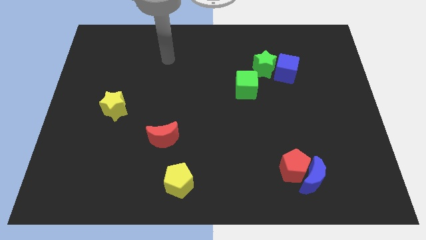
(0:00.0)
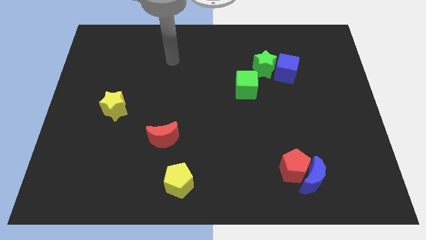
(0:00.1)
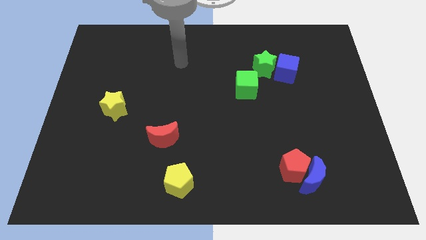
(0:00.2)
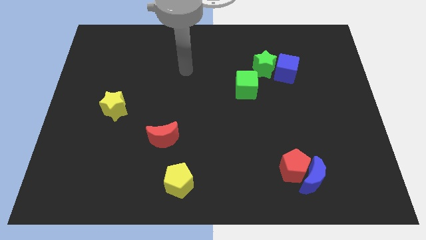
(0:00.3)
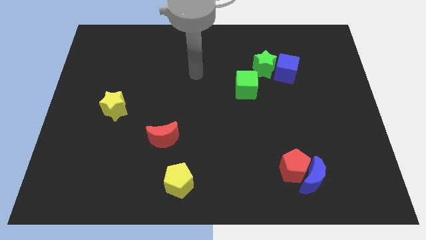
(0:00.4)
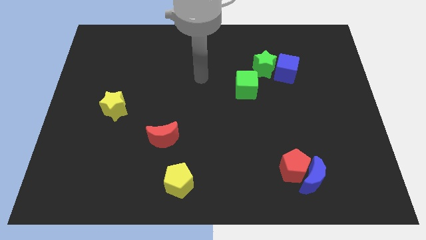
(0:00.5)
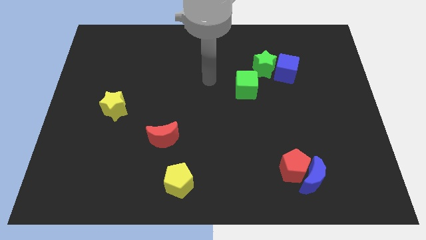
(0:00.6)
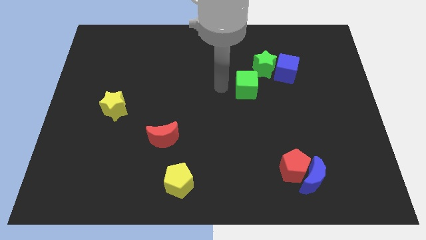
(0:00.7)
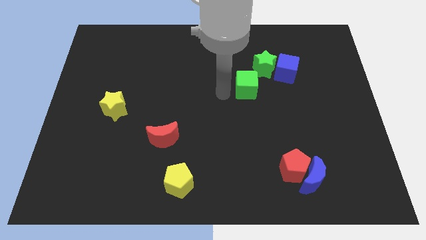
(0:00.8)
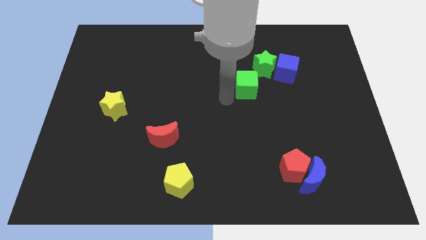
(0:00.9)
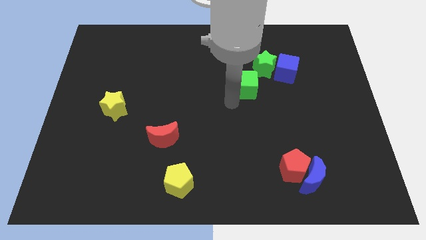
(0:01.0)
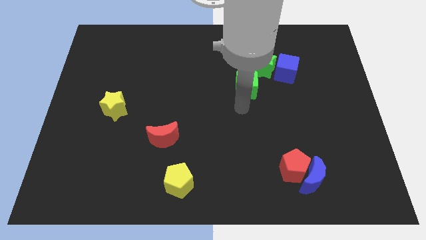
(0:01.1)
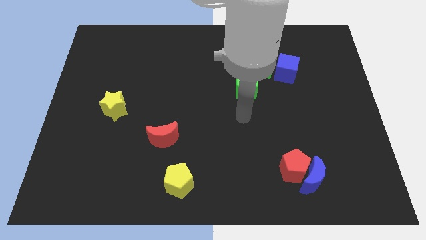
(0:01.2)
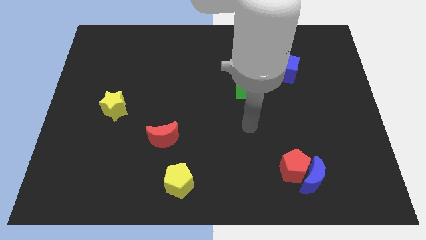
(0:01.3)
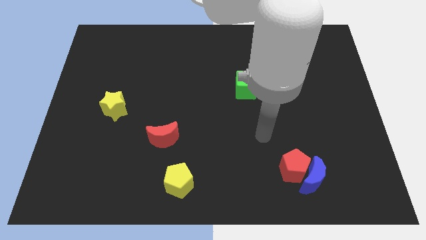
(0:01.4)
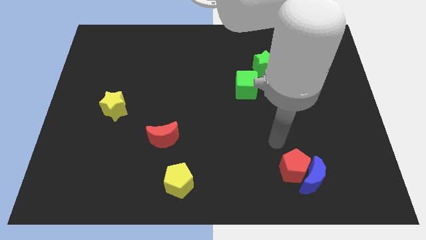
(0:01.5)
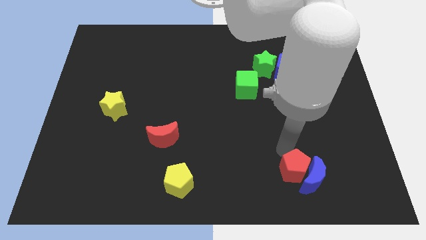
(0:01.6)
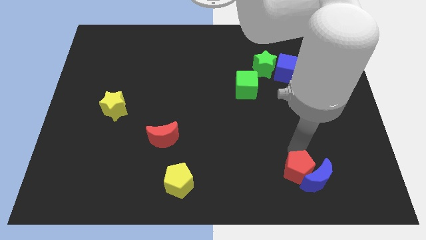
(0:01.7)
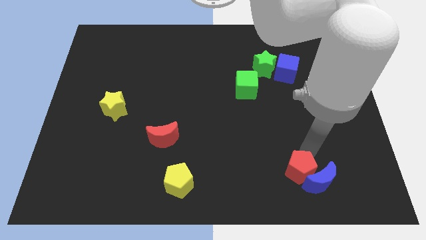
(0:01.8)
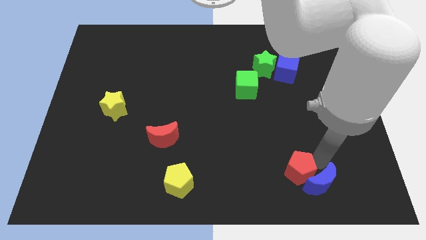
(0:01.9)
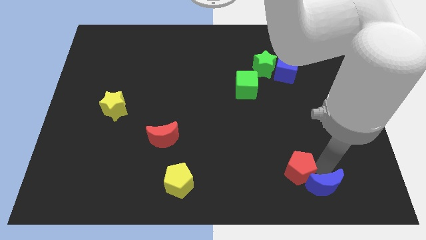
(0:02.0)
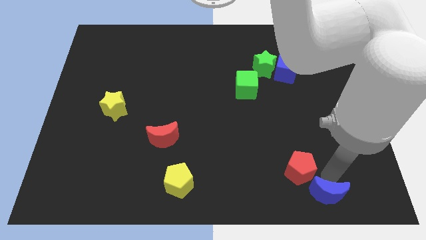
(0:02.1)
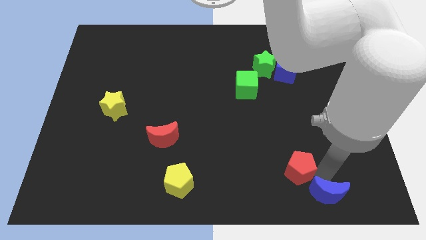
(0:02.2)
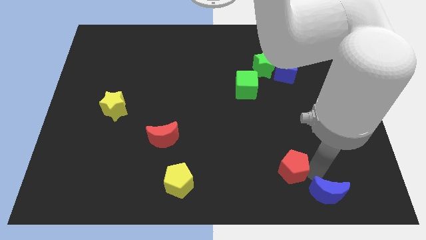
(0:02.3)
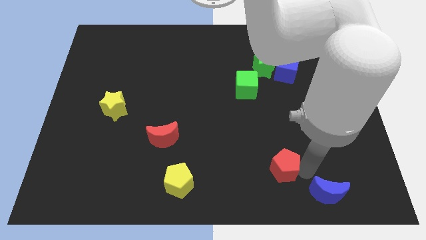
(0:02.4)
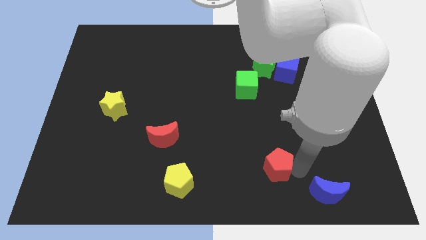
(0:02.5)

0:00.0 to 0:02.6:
move the red pentagon away from the blue moon

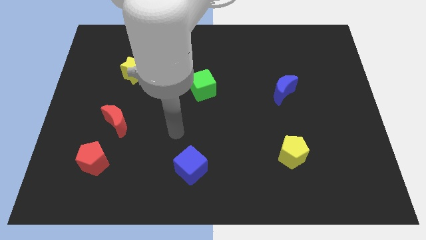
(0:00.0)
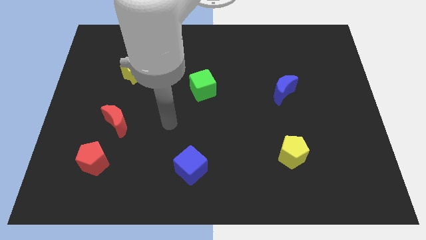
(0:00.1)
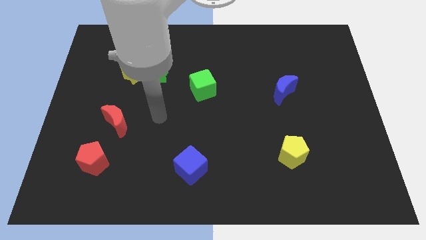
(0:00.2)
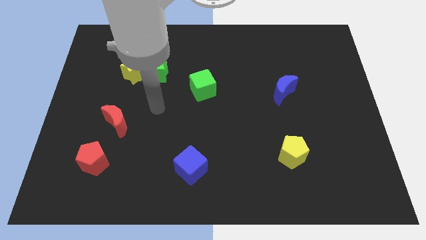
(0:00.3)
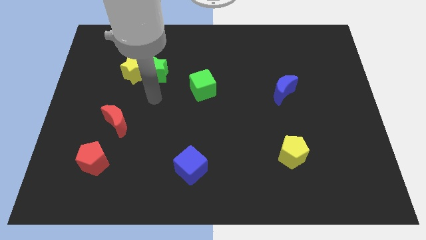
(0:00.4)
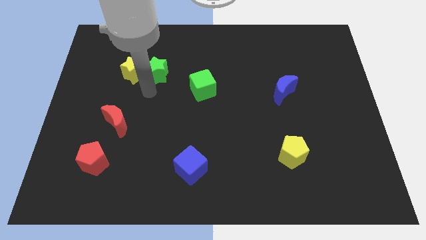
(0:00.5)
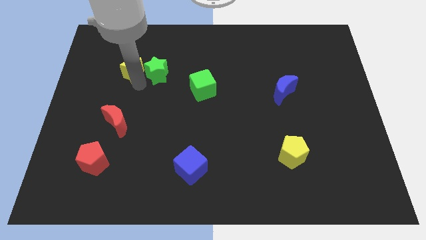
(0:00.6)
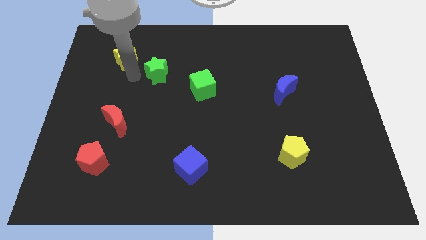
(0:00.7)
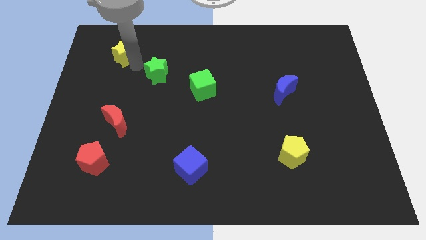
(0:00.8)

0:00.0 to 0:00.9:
pull the green star apart from the yellow star

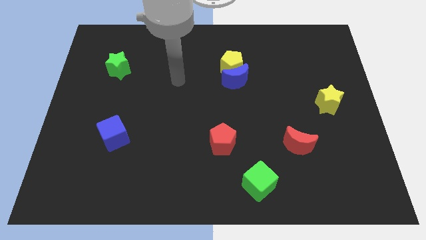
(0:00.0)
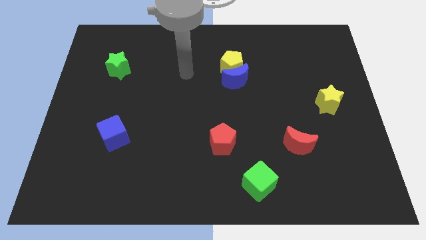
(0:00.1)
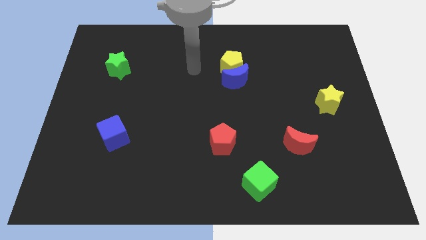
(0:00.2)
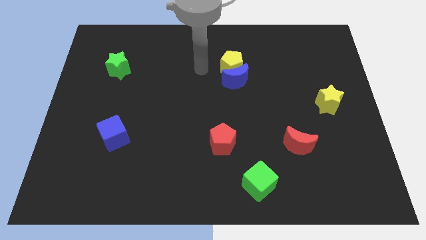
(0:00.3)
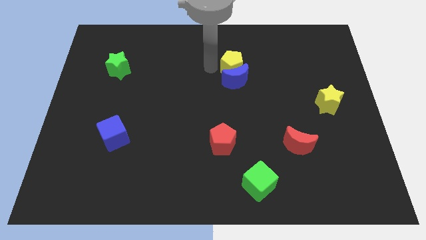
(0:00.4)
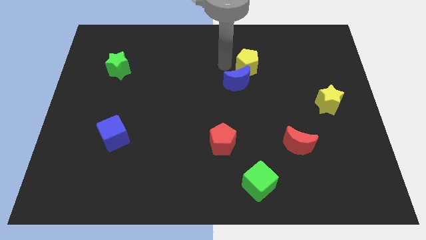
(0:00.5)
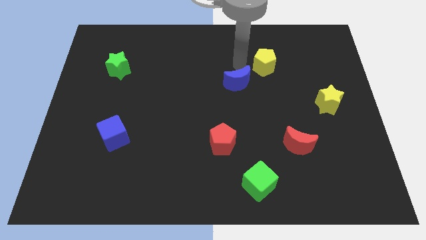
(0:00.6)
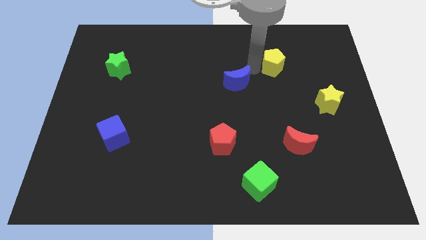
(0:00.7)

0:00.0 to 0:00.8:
move the blue moon away from the yellow pentagon

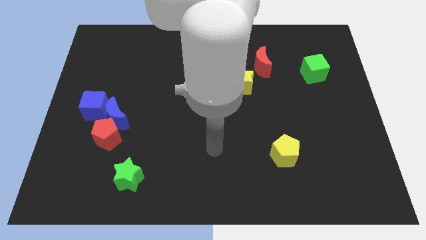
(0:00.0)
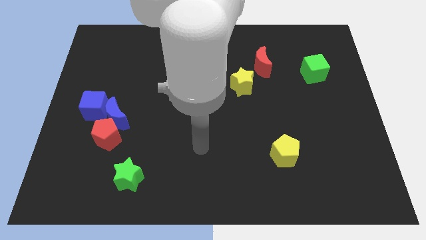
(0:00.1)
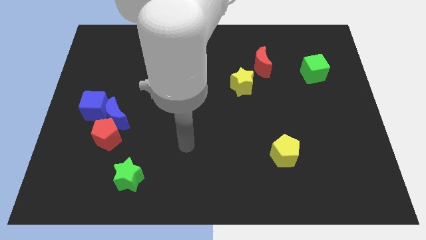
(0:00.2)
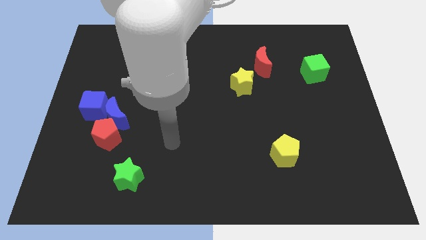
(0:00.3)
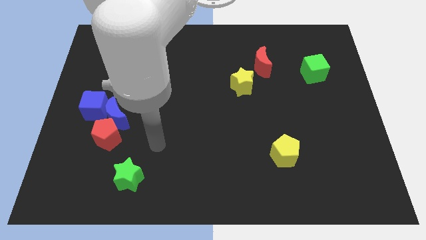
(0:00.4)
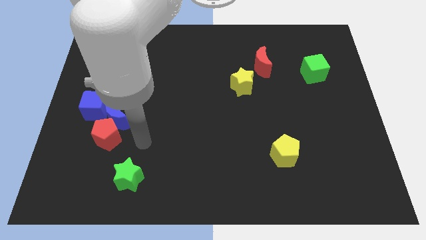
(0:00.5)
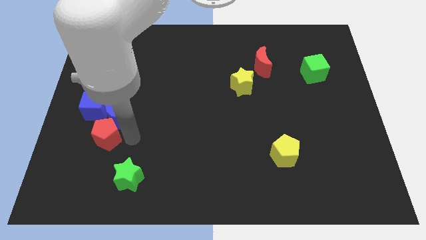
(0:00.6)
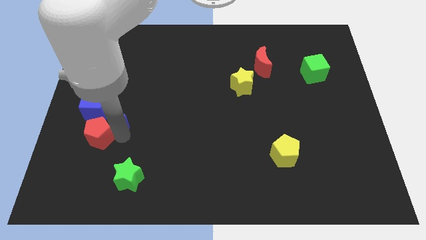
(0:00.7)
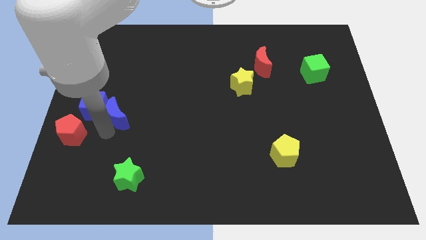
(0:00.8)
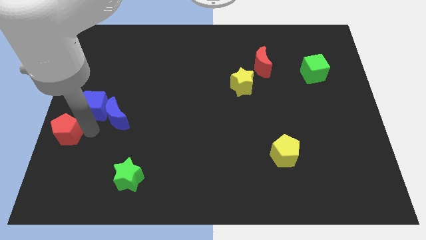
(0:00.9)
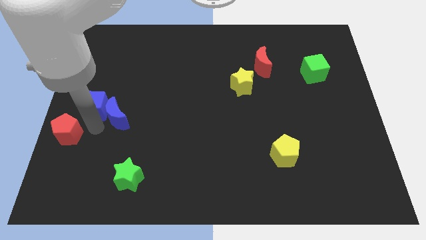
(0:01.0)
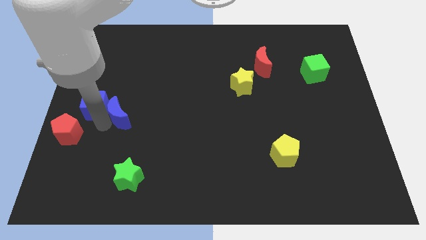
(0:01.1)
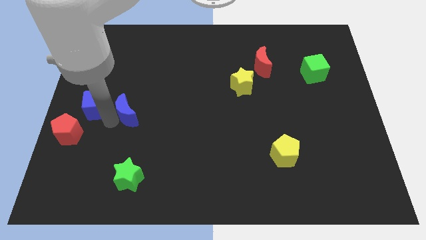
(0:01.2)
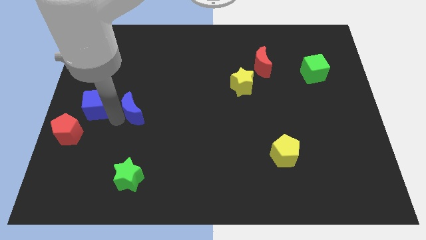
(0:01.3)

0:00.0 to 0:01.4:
move the blue moon away from the red pentagon and blue cube

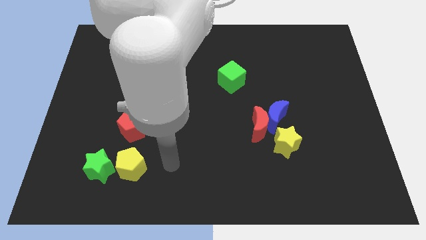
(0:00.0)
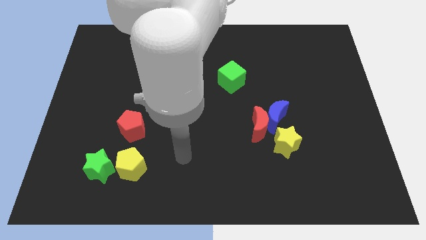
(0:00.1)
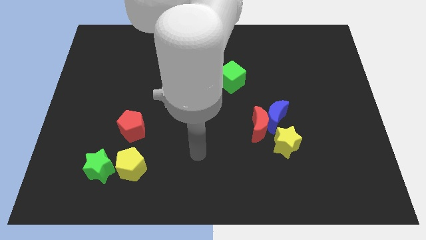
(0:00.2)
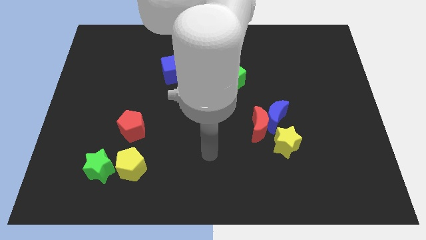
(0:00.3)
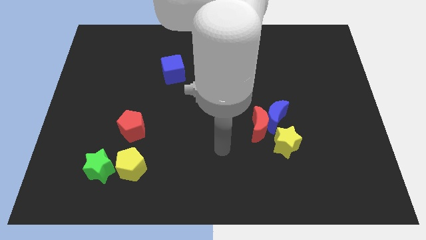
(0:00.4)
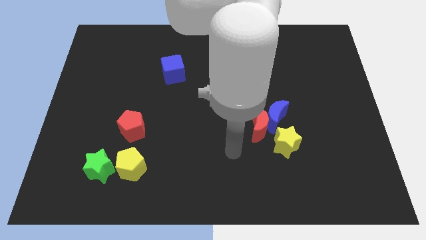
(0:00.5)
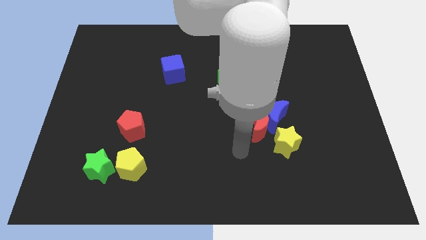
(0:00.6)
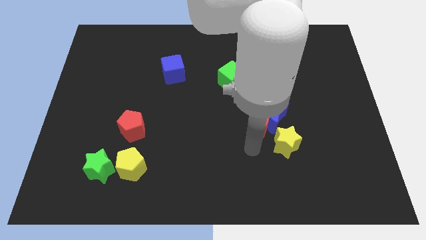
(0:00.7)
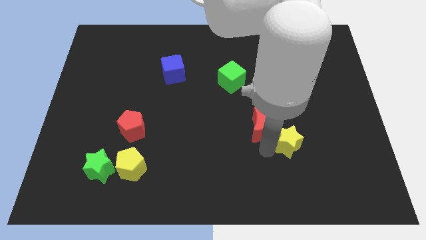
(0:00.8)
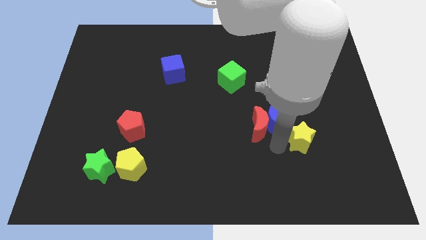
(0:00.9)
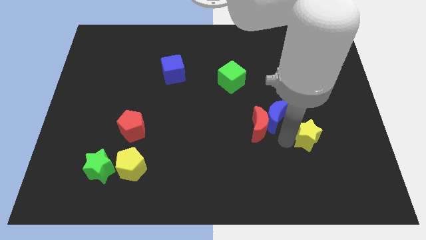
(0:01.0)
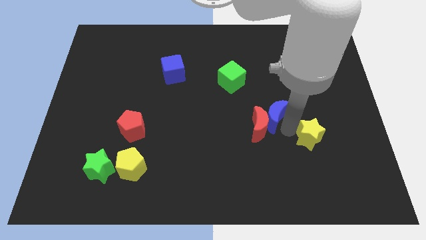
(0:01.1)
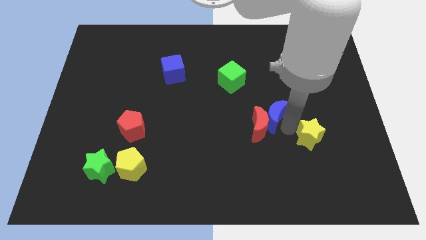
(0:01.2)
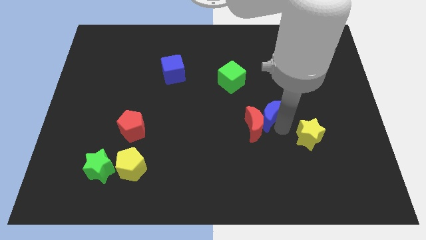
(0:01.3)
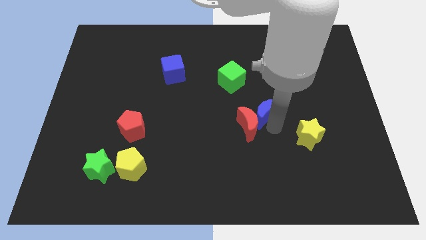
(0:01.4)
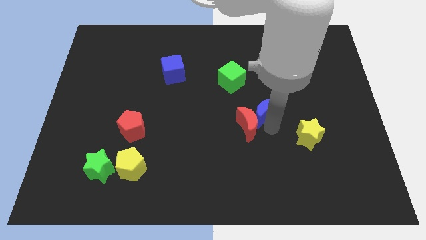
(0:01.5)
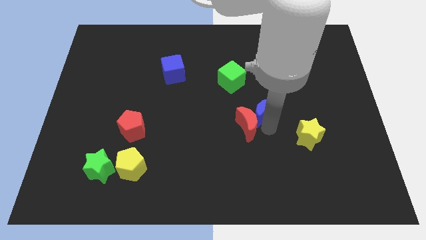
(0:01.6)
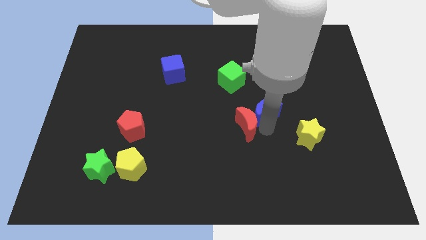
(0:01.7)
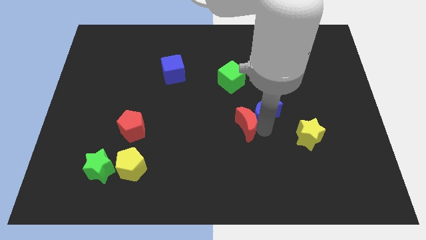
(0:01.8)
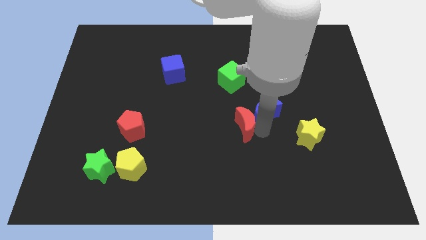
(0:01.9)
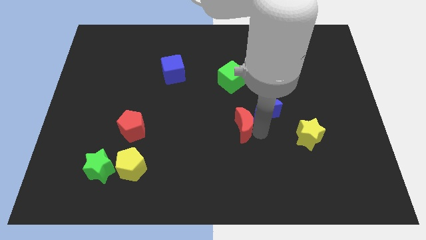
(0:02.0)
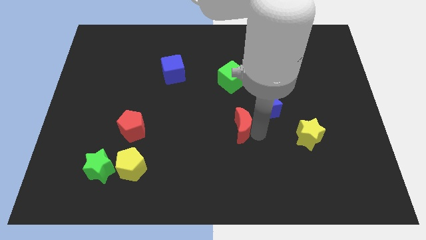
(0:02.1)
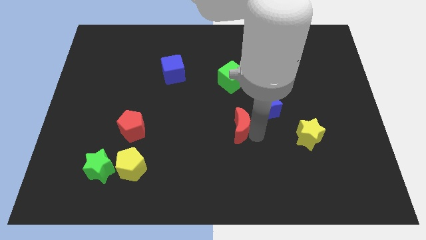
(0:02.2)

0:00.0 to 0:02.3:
pull the red moon apart from the blue moon and yellow star

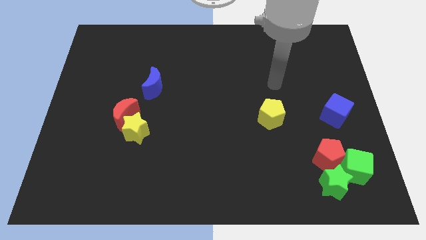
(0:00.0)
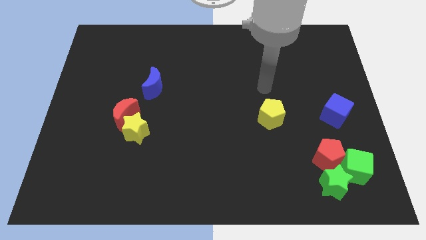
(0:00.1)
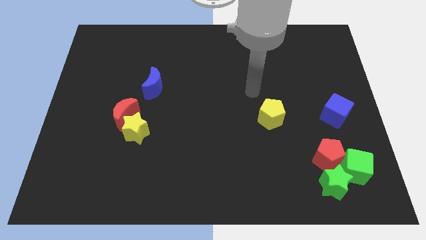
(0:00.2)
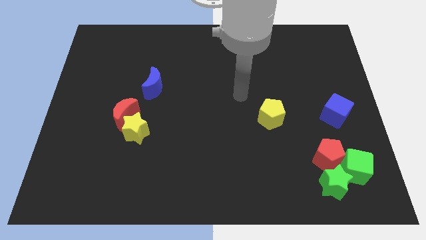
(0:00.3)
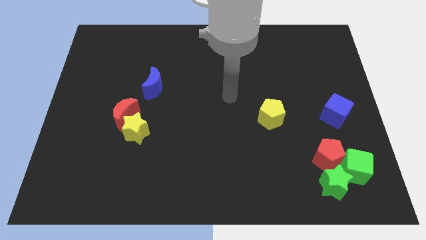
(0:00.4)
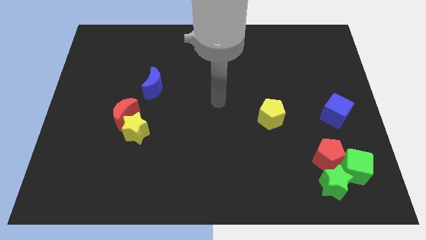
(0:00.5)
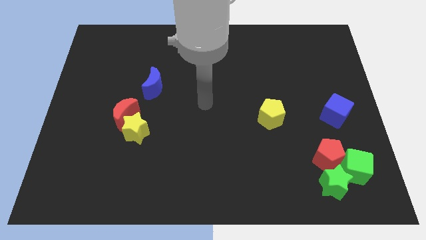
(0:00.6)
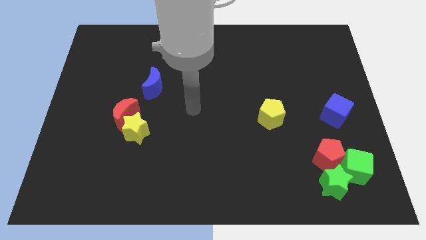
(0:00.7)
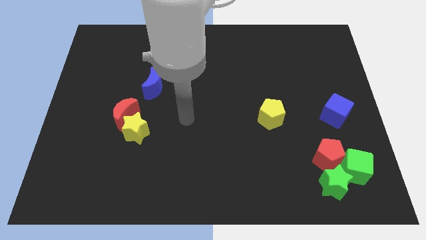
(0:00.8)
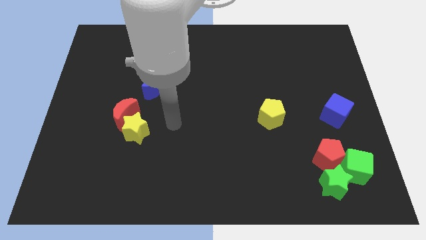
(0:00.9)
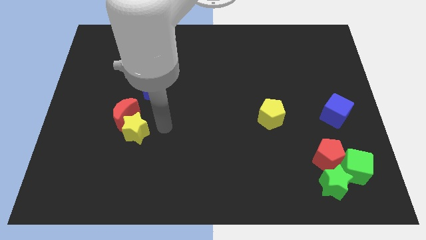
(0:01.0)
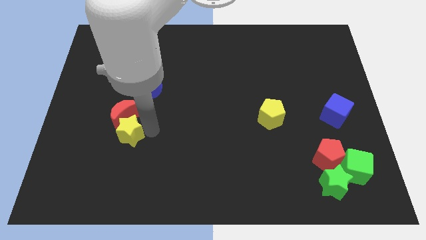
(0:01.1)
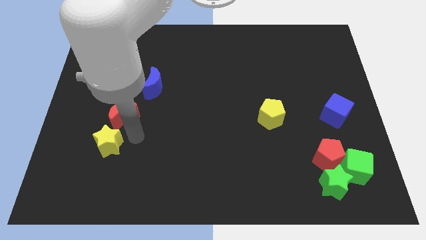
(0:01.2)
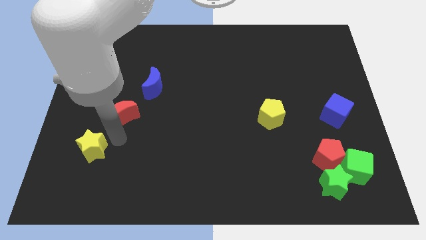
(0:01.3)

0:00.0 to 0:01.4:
pull the red moon apart from the yellow star
